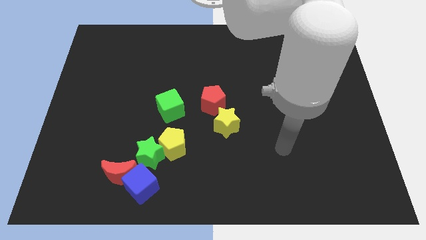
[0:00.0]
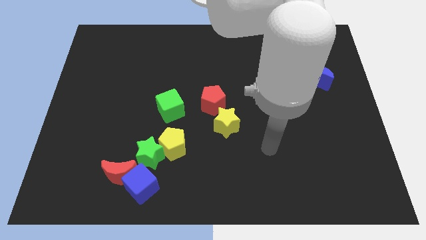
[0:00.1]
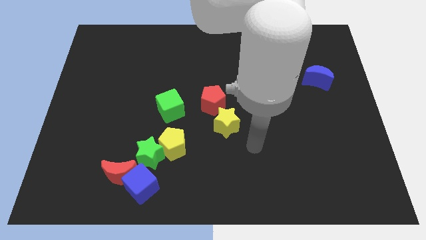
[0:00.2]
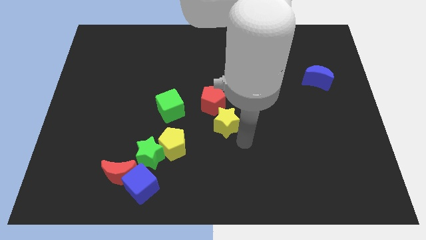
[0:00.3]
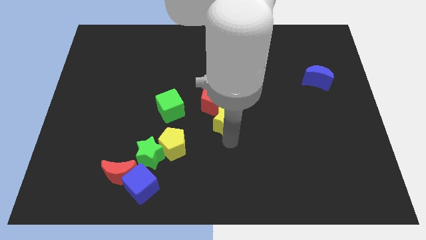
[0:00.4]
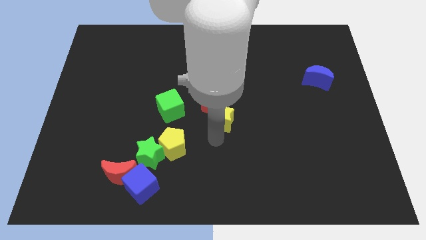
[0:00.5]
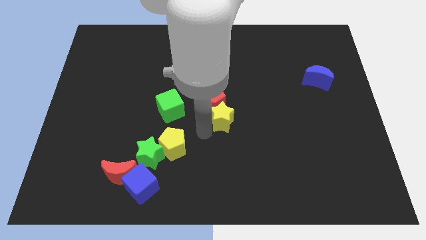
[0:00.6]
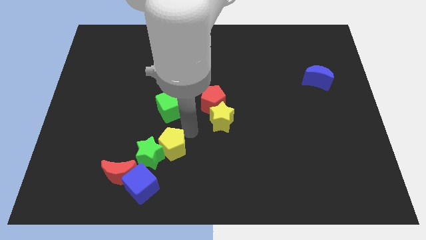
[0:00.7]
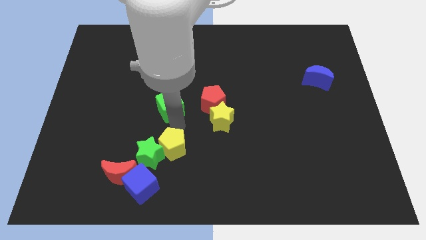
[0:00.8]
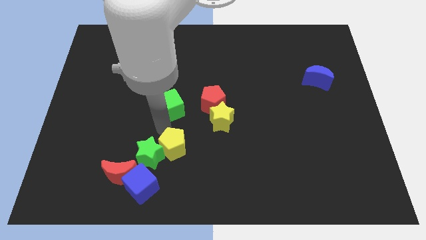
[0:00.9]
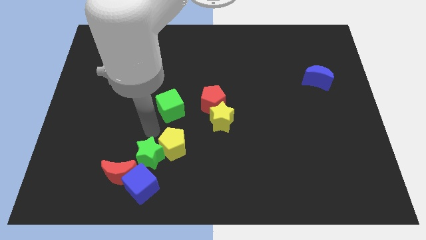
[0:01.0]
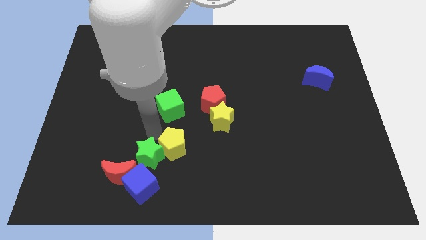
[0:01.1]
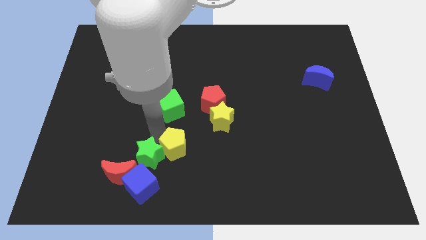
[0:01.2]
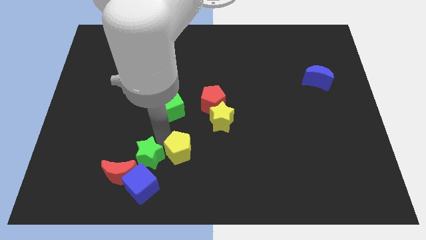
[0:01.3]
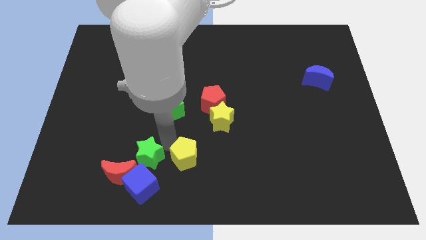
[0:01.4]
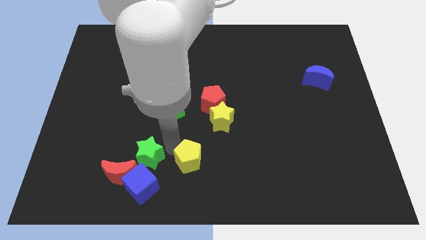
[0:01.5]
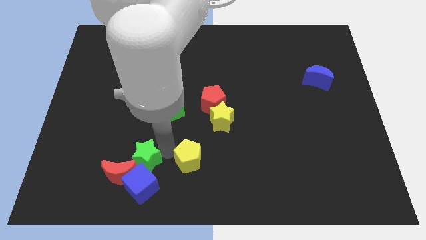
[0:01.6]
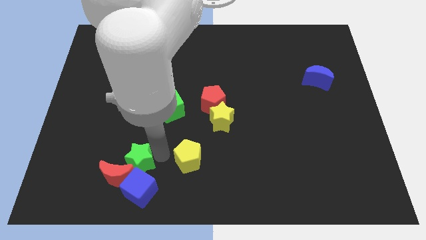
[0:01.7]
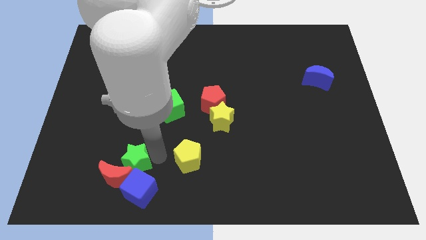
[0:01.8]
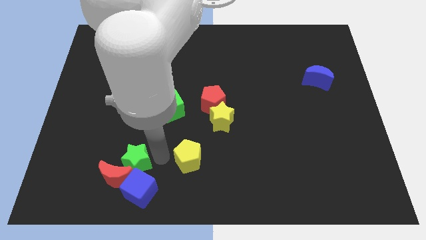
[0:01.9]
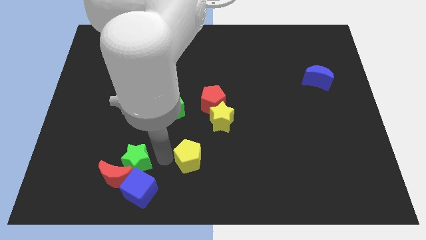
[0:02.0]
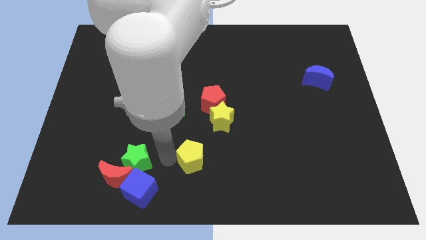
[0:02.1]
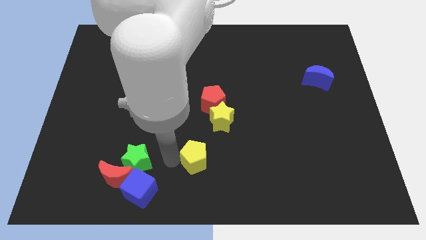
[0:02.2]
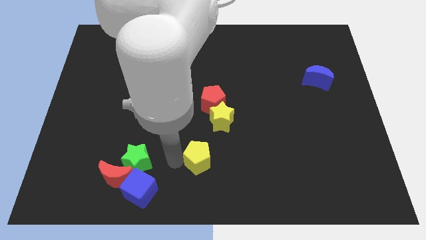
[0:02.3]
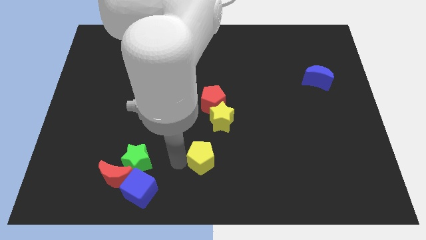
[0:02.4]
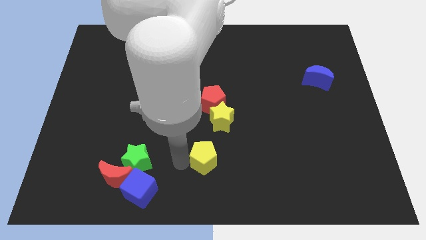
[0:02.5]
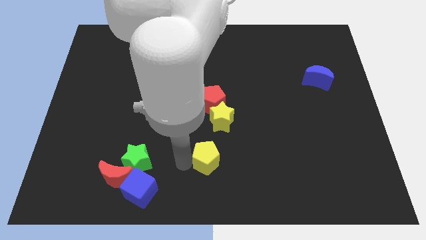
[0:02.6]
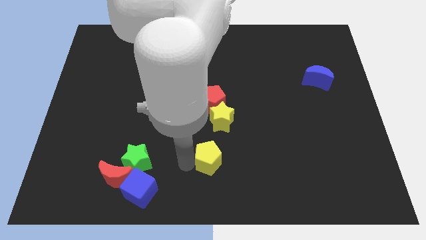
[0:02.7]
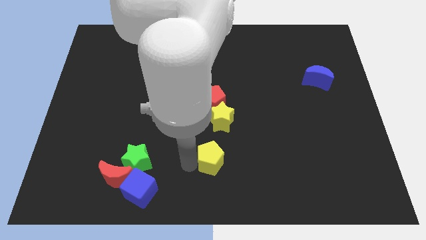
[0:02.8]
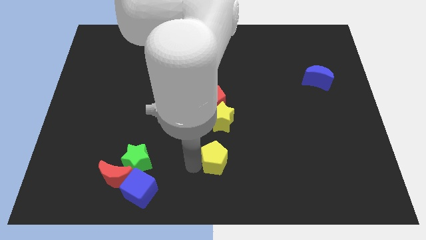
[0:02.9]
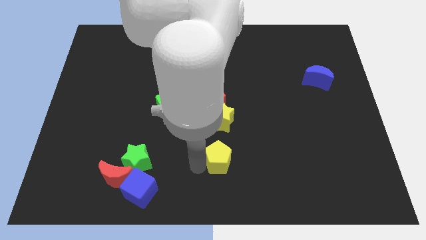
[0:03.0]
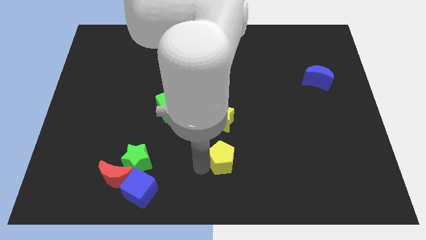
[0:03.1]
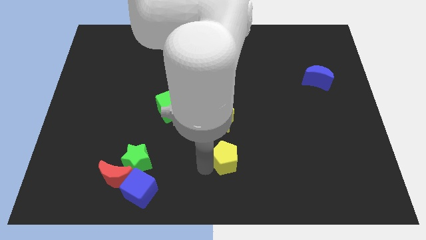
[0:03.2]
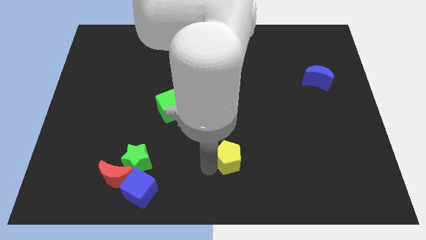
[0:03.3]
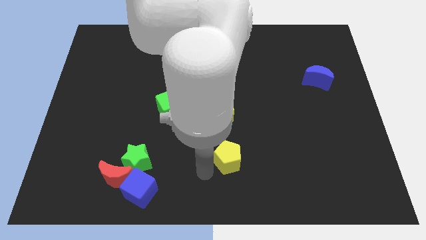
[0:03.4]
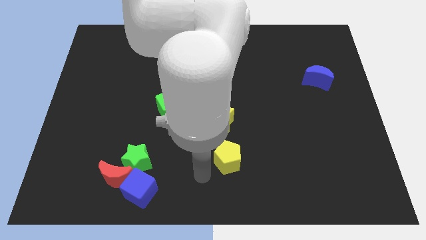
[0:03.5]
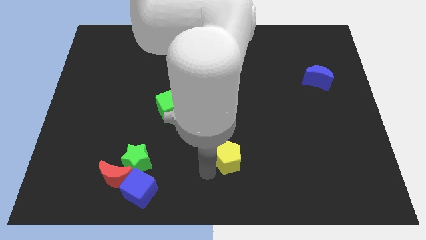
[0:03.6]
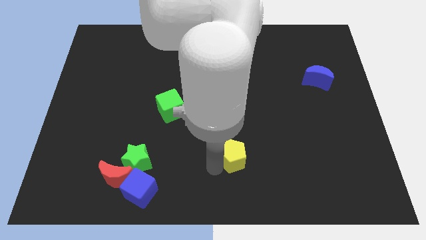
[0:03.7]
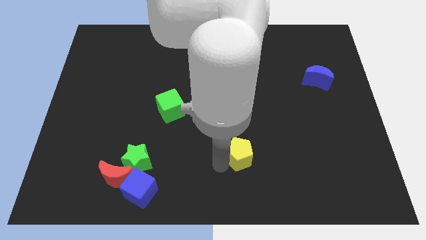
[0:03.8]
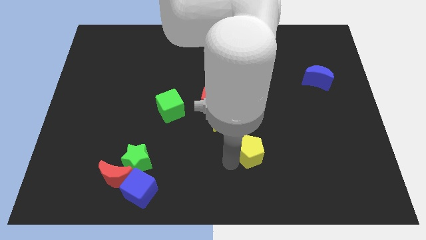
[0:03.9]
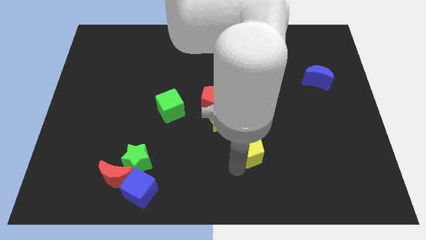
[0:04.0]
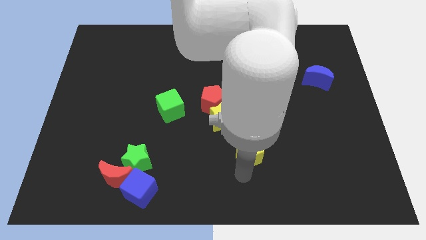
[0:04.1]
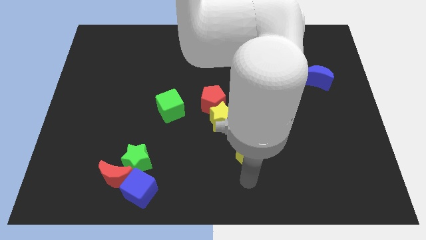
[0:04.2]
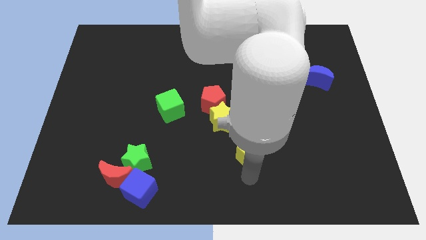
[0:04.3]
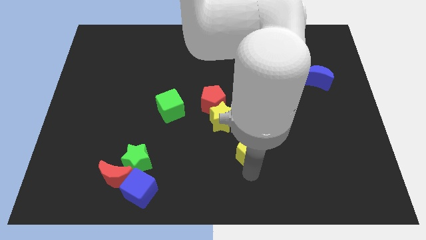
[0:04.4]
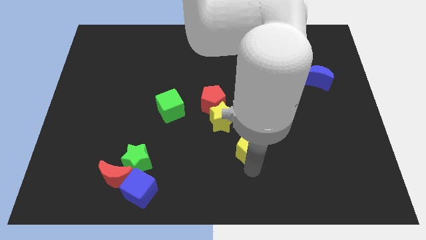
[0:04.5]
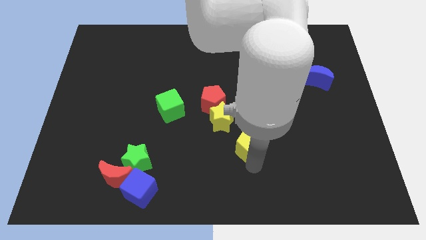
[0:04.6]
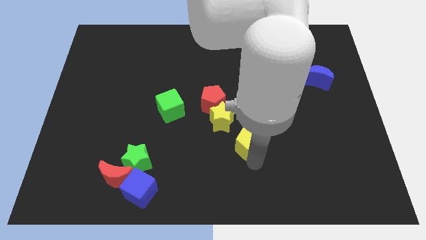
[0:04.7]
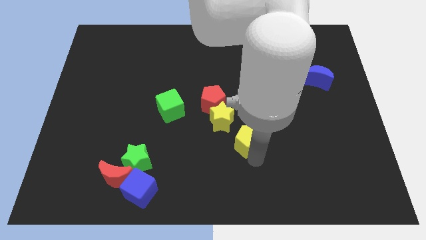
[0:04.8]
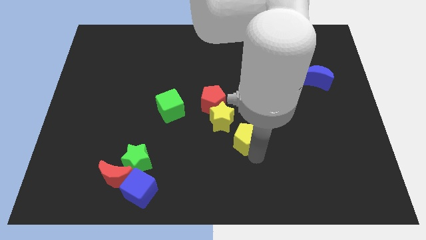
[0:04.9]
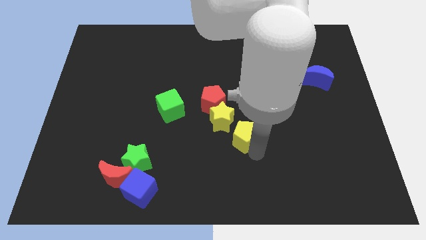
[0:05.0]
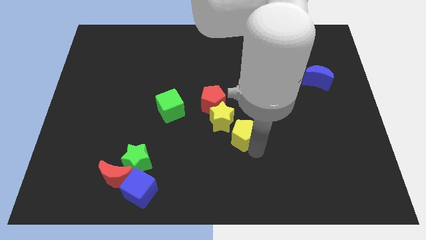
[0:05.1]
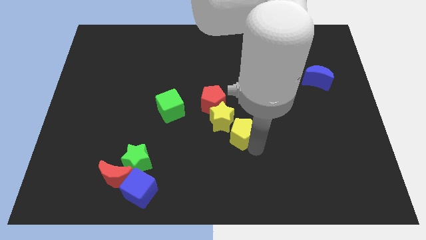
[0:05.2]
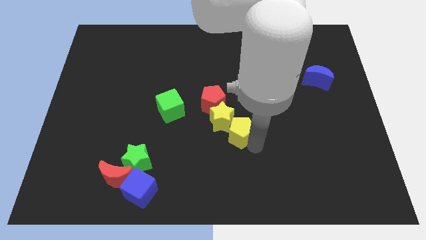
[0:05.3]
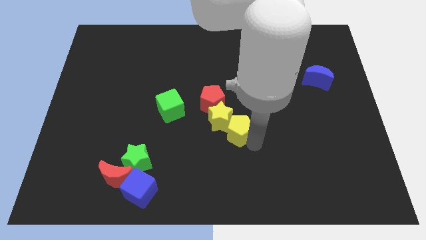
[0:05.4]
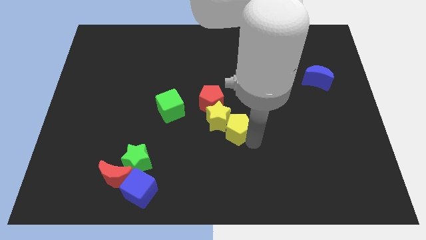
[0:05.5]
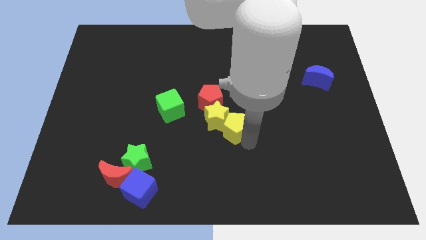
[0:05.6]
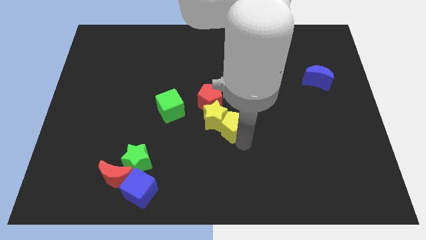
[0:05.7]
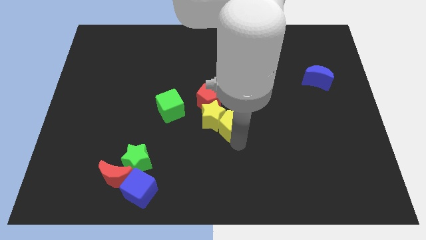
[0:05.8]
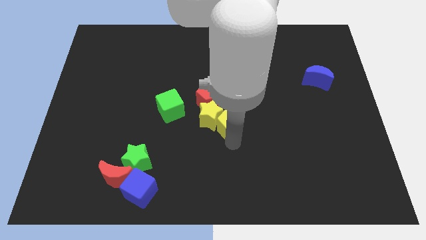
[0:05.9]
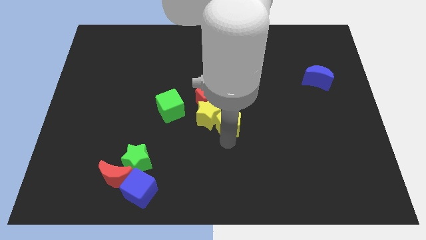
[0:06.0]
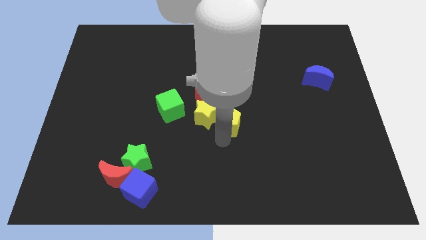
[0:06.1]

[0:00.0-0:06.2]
put the yellow pentagon right of the green cube

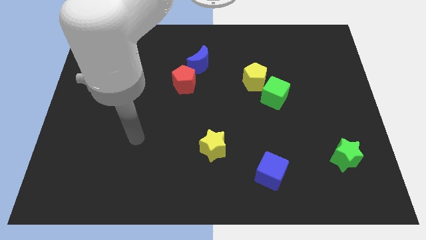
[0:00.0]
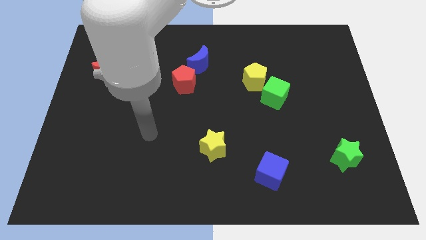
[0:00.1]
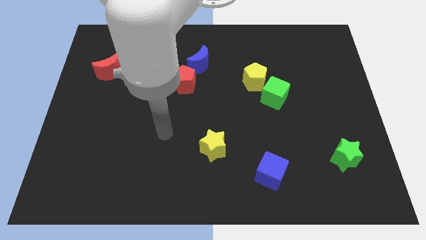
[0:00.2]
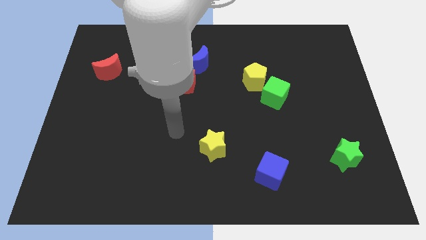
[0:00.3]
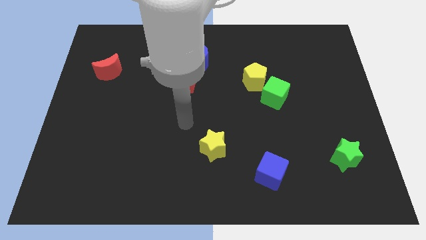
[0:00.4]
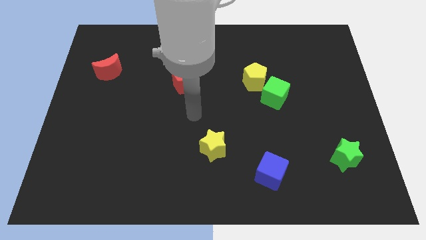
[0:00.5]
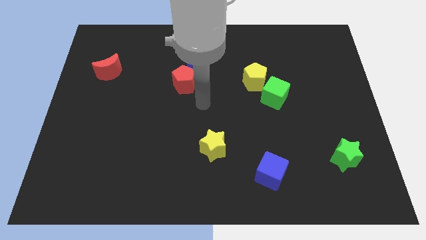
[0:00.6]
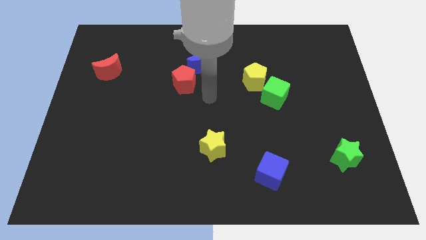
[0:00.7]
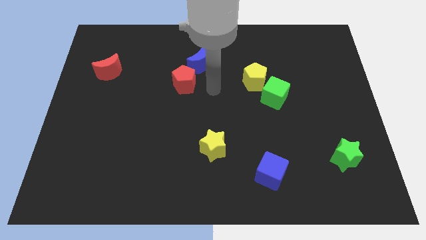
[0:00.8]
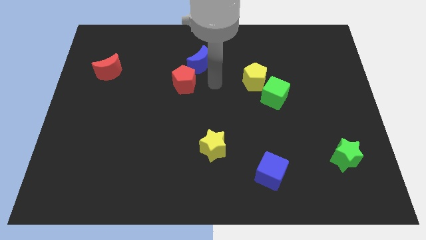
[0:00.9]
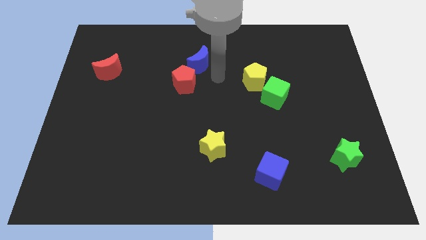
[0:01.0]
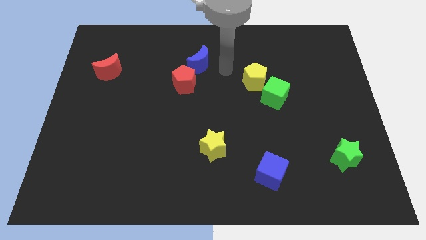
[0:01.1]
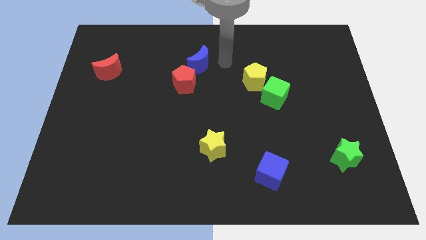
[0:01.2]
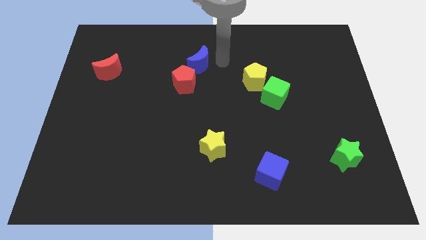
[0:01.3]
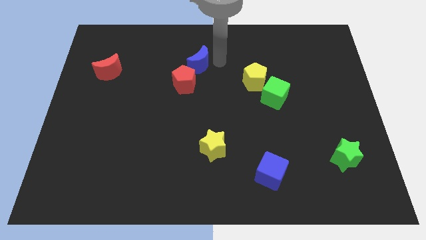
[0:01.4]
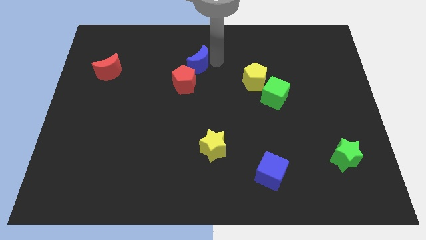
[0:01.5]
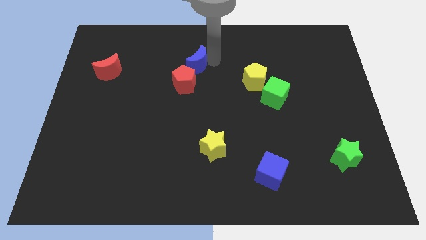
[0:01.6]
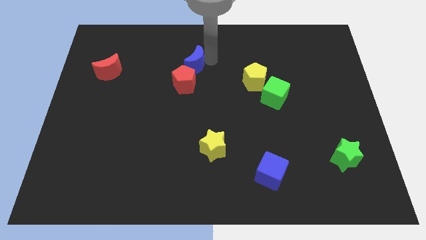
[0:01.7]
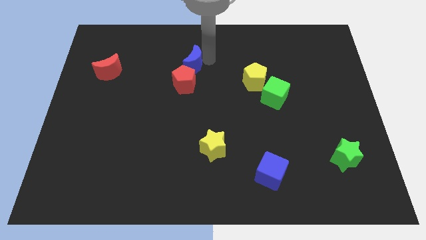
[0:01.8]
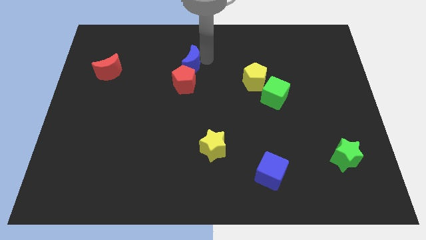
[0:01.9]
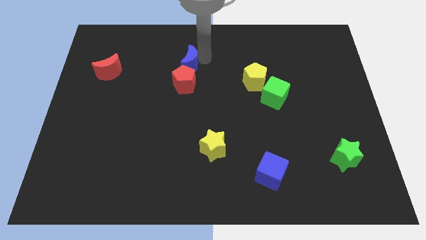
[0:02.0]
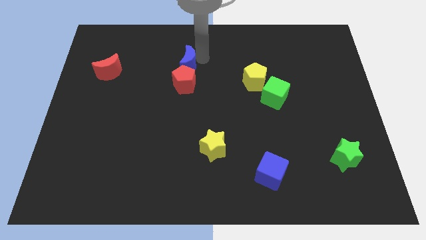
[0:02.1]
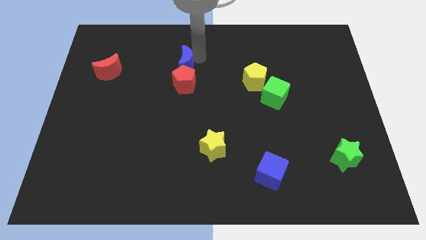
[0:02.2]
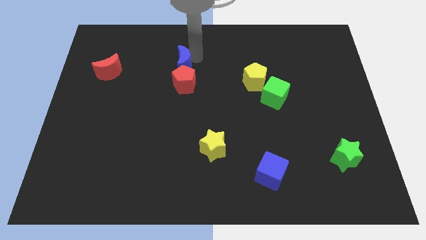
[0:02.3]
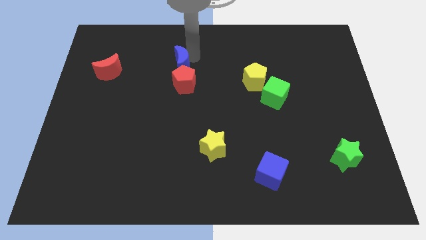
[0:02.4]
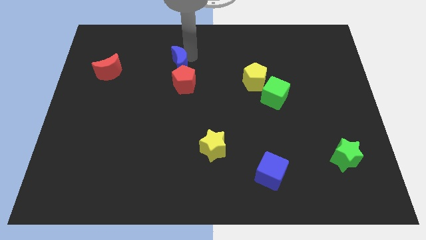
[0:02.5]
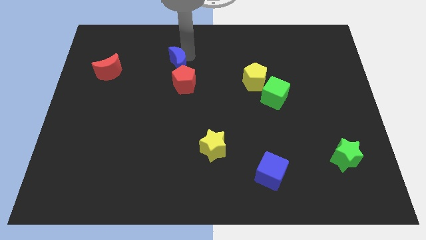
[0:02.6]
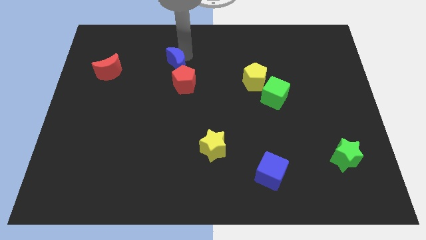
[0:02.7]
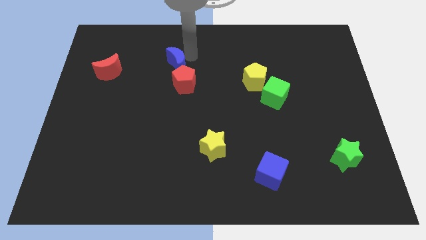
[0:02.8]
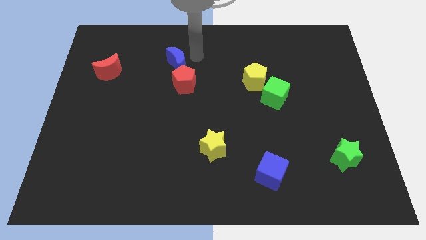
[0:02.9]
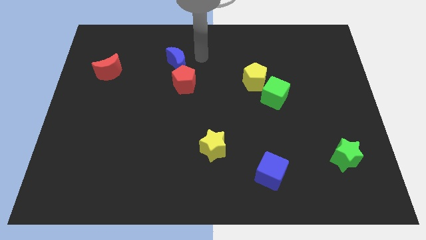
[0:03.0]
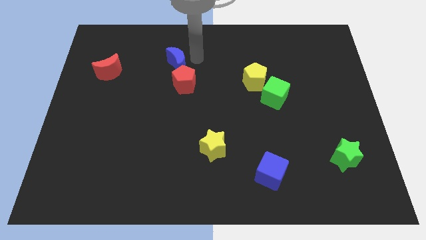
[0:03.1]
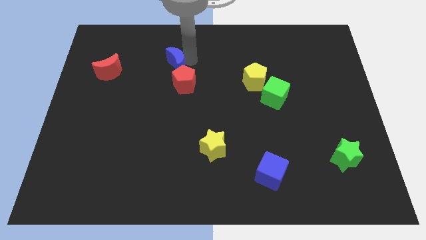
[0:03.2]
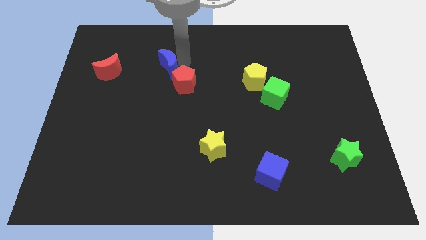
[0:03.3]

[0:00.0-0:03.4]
move the blue moon right of the red moon
